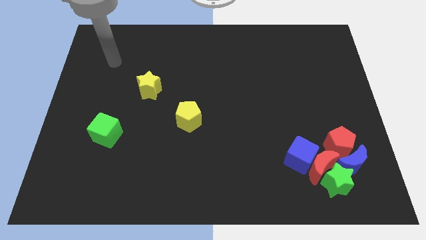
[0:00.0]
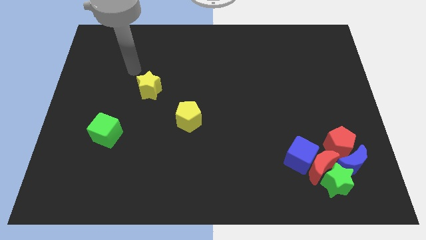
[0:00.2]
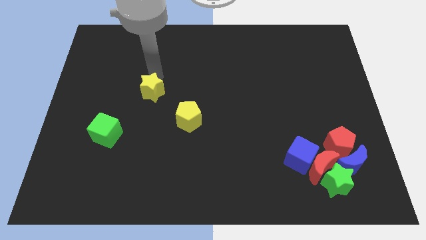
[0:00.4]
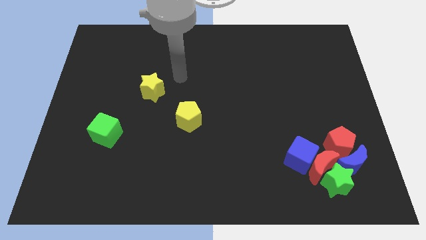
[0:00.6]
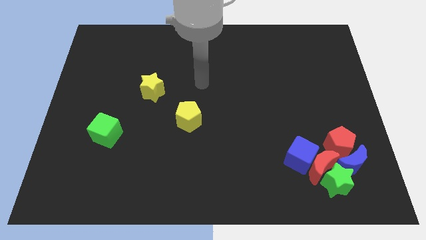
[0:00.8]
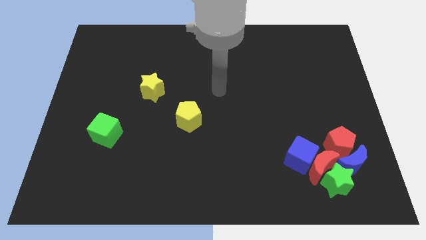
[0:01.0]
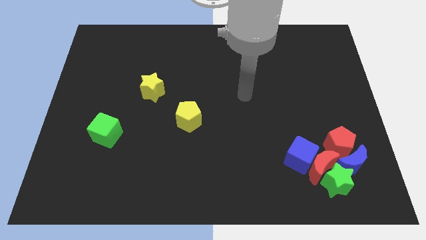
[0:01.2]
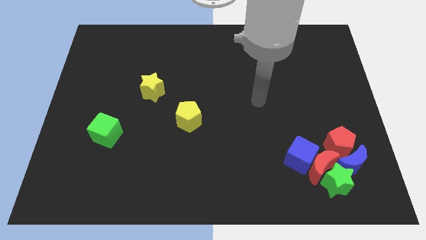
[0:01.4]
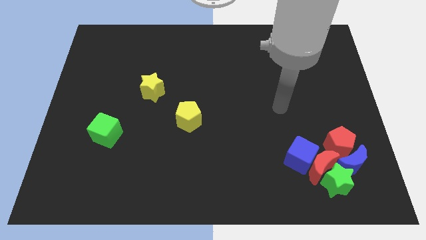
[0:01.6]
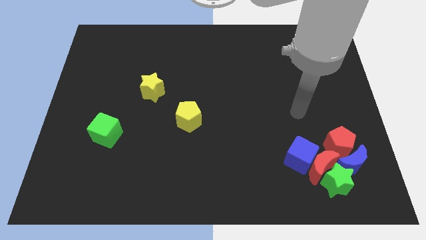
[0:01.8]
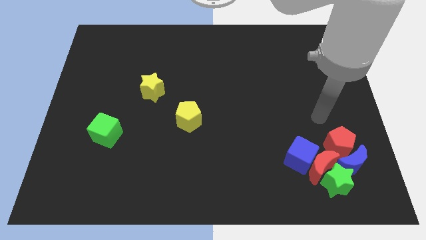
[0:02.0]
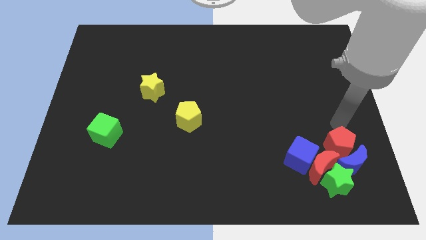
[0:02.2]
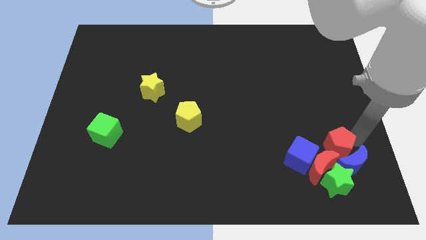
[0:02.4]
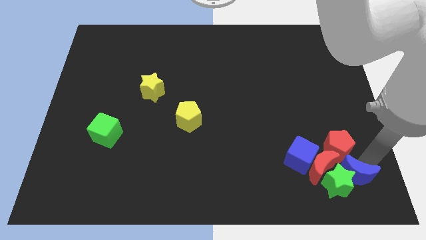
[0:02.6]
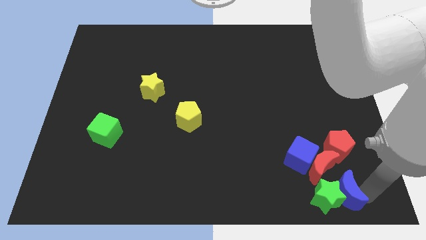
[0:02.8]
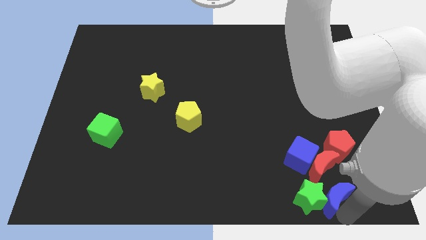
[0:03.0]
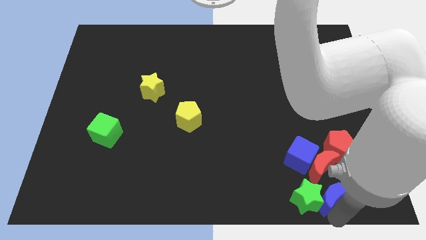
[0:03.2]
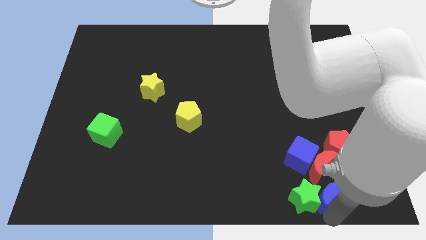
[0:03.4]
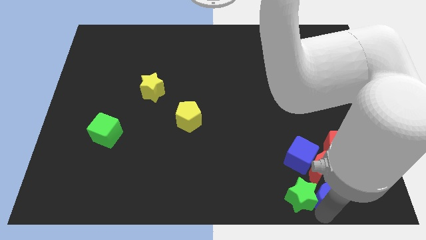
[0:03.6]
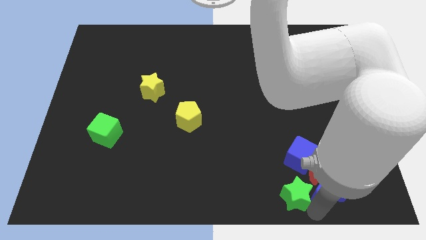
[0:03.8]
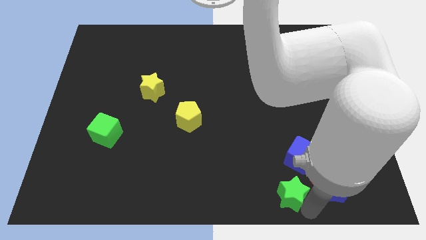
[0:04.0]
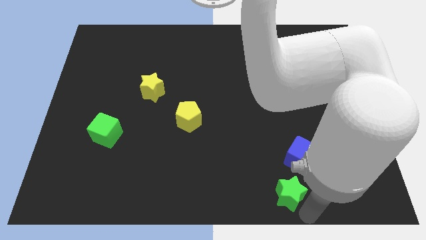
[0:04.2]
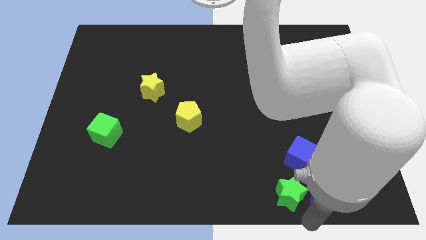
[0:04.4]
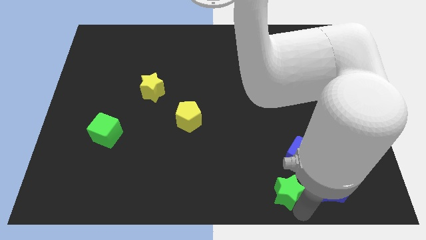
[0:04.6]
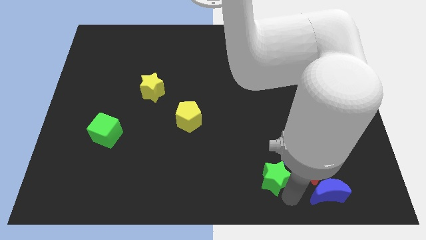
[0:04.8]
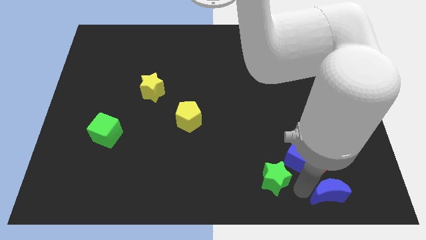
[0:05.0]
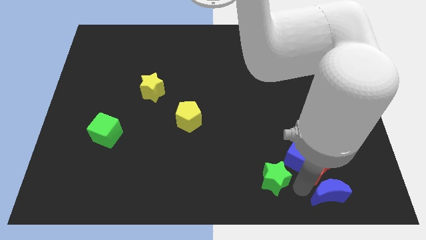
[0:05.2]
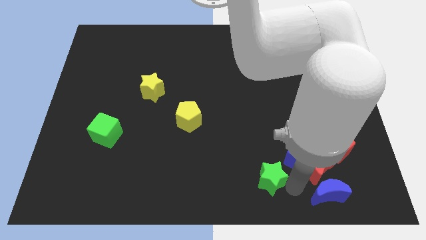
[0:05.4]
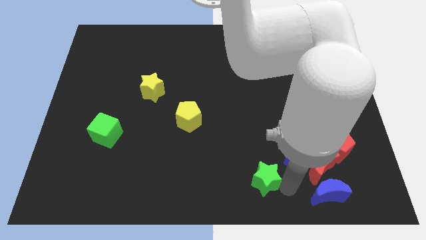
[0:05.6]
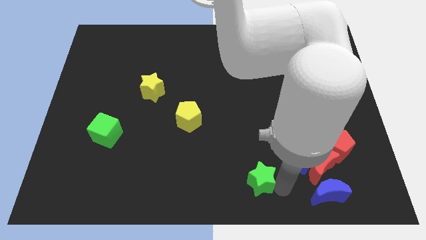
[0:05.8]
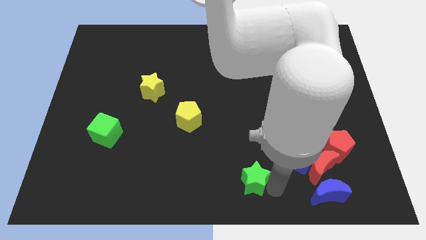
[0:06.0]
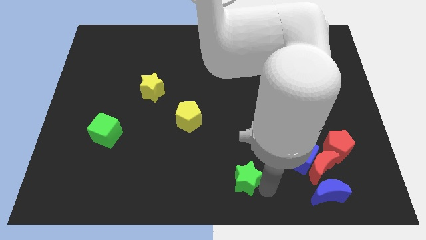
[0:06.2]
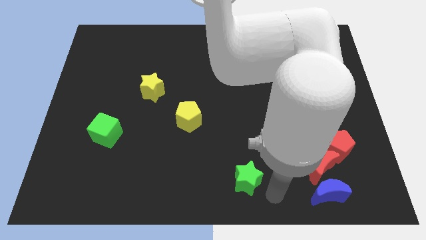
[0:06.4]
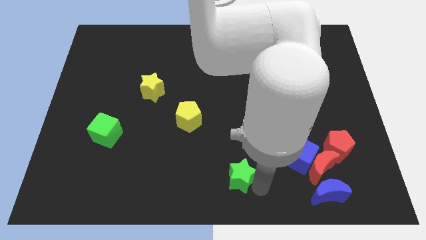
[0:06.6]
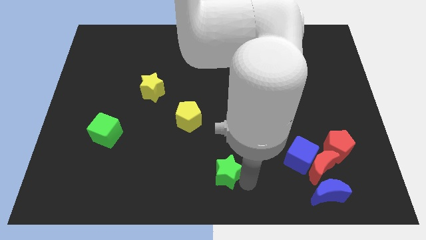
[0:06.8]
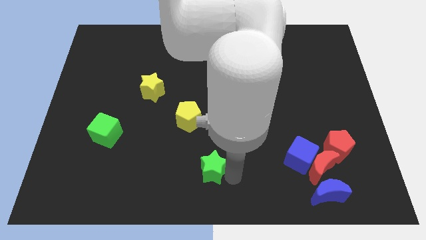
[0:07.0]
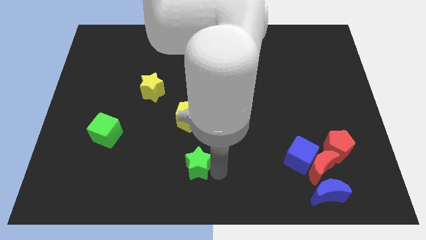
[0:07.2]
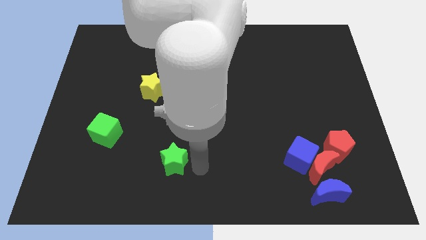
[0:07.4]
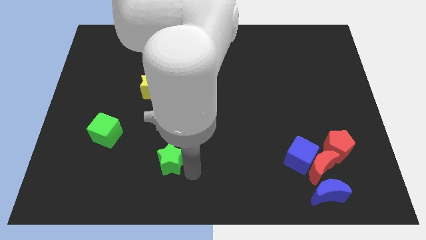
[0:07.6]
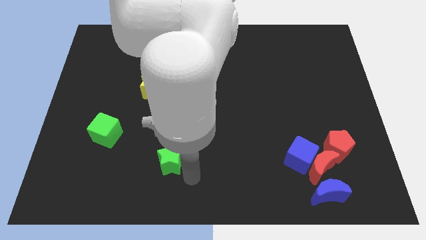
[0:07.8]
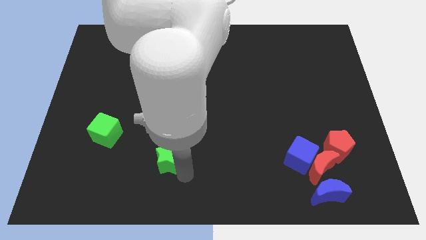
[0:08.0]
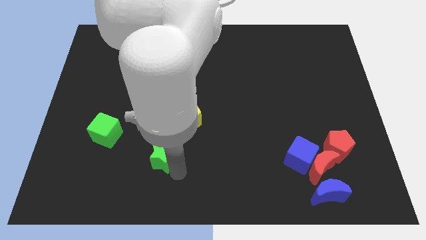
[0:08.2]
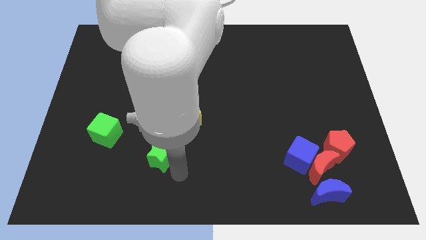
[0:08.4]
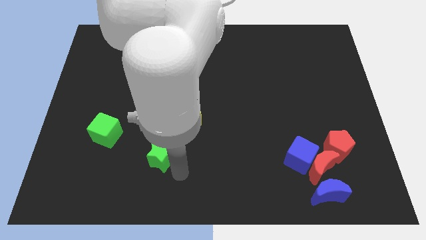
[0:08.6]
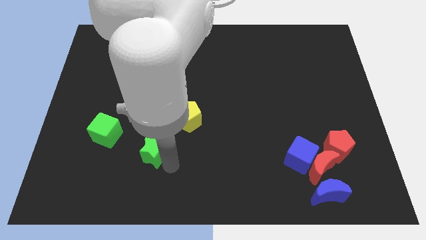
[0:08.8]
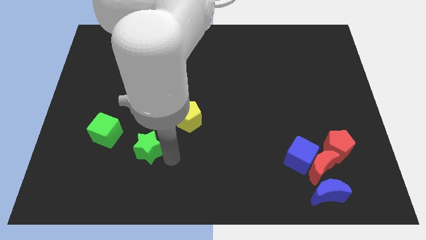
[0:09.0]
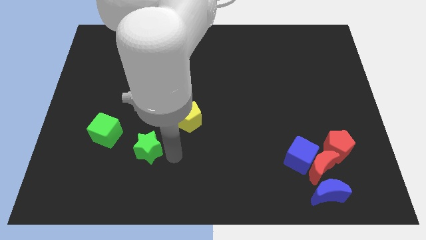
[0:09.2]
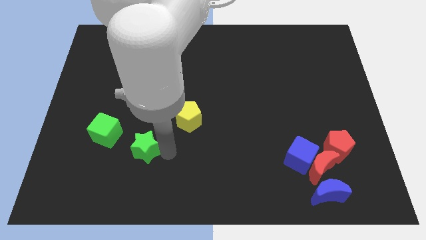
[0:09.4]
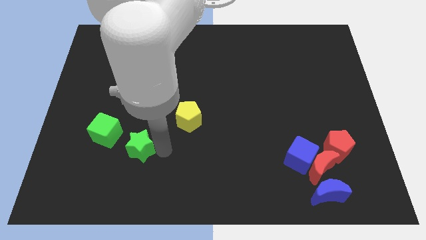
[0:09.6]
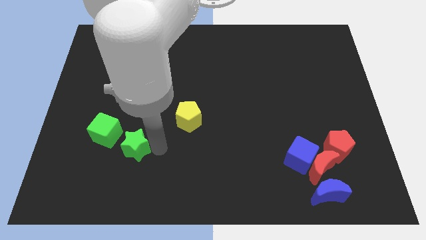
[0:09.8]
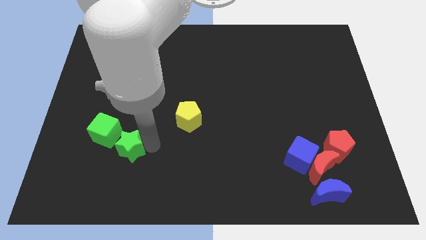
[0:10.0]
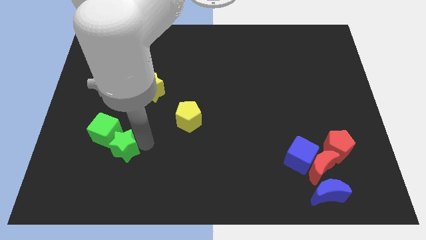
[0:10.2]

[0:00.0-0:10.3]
move the green star to the green cube

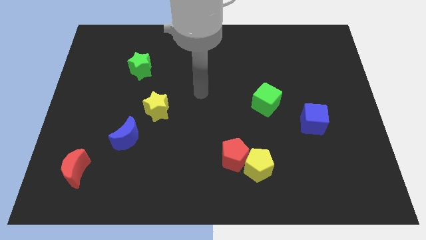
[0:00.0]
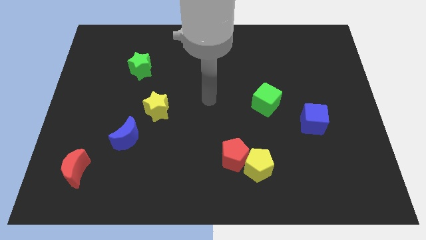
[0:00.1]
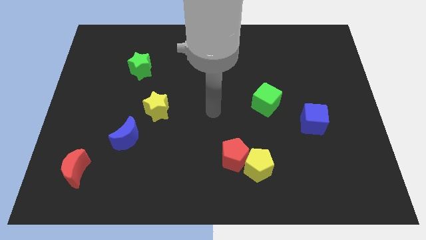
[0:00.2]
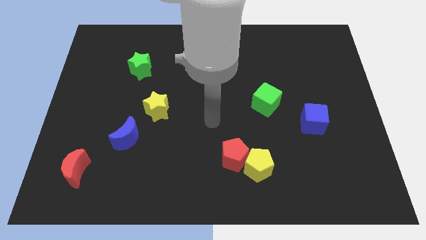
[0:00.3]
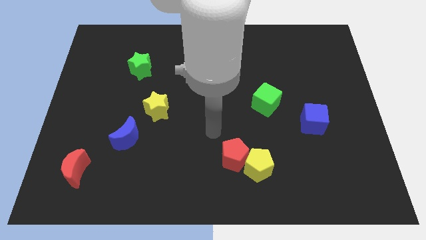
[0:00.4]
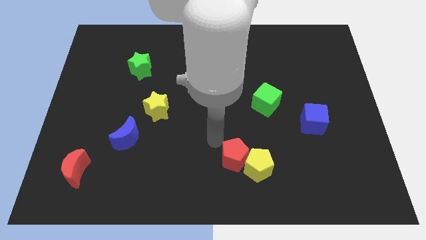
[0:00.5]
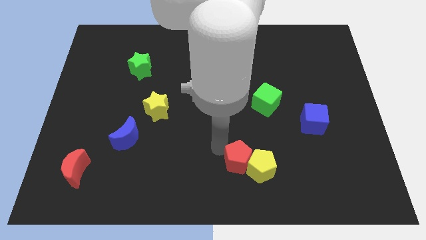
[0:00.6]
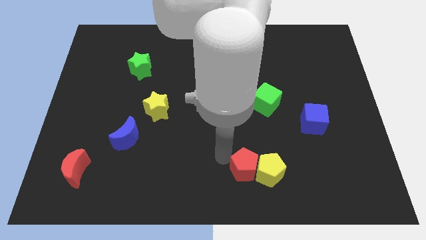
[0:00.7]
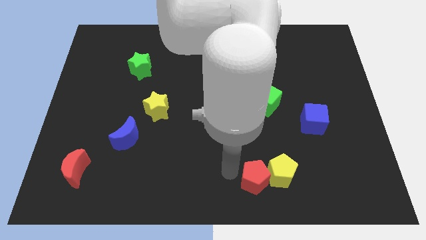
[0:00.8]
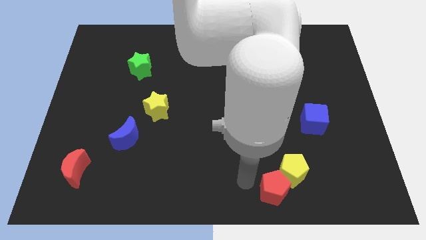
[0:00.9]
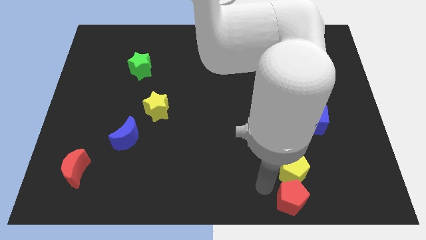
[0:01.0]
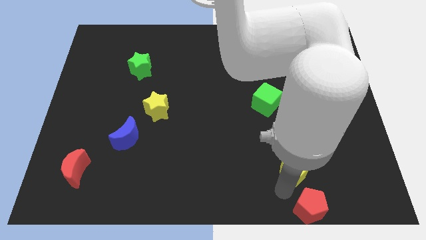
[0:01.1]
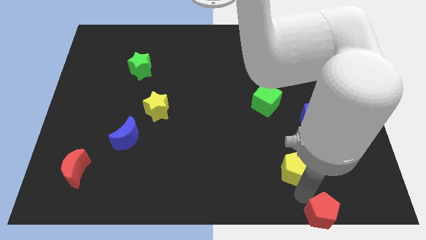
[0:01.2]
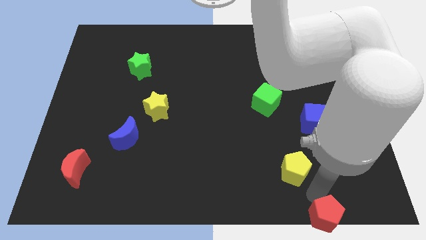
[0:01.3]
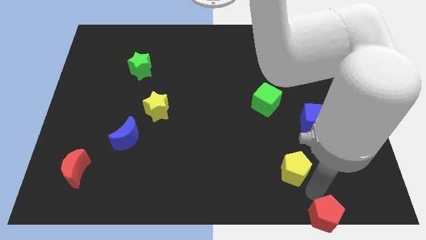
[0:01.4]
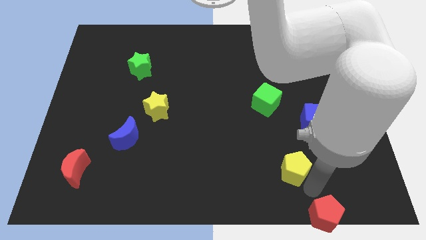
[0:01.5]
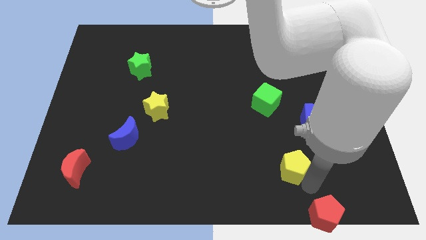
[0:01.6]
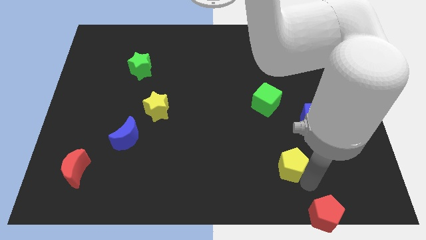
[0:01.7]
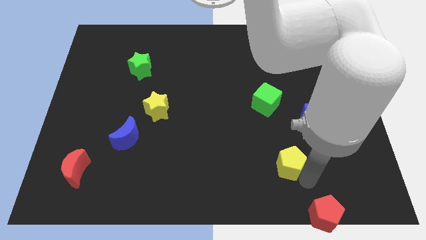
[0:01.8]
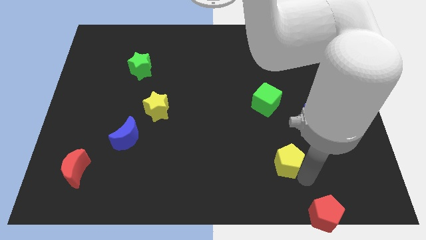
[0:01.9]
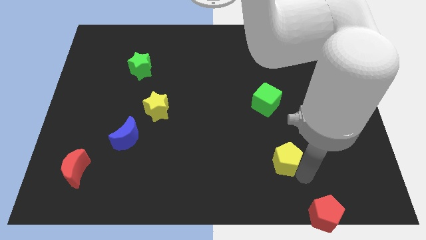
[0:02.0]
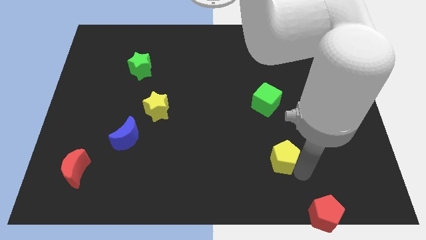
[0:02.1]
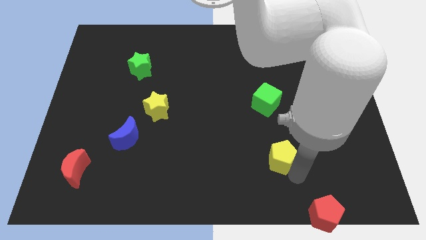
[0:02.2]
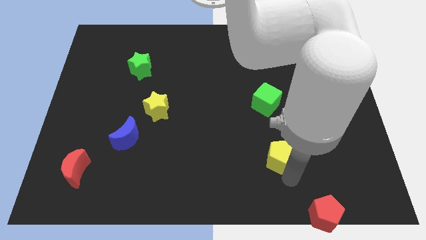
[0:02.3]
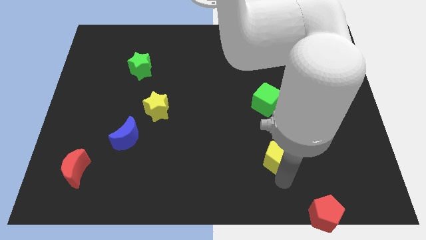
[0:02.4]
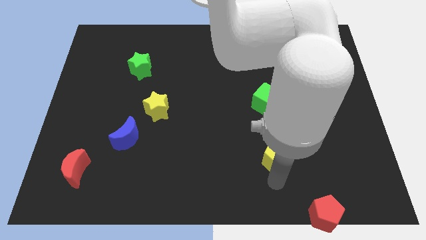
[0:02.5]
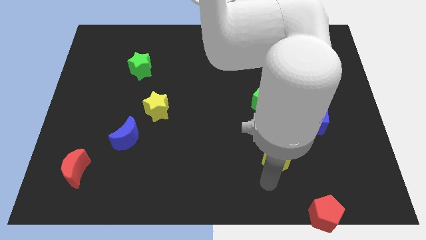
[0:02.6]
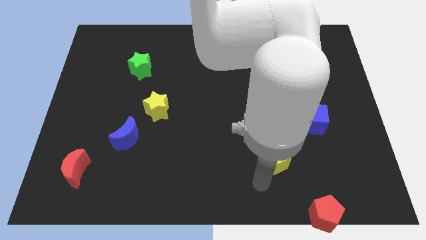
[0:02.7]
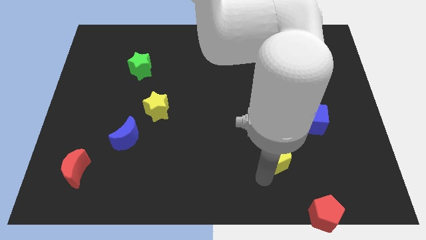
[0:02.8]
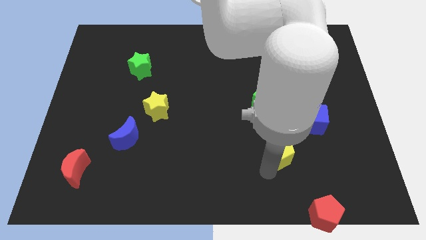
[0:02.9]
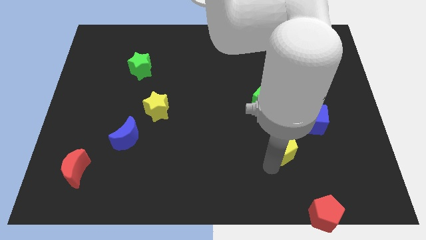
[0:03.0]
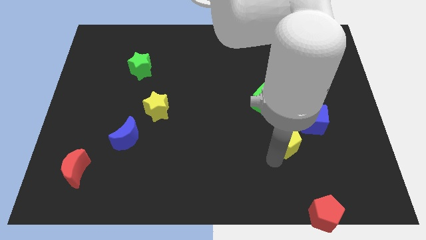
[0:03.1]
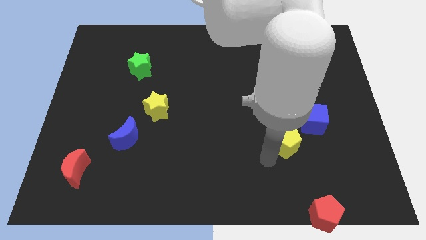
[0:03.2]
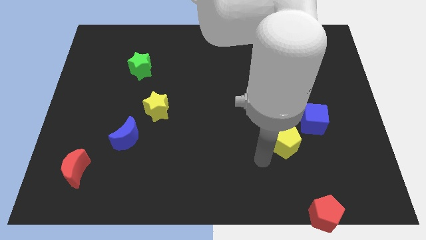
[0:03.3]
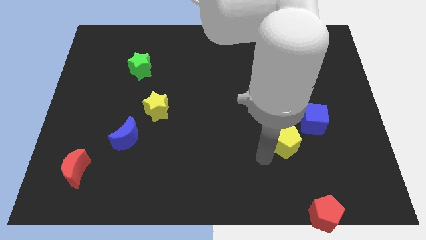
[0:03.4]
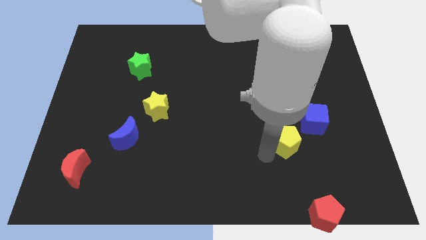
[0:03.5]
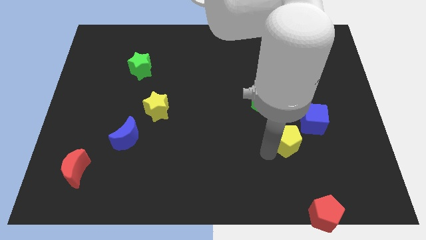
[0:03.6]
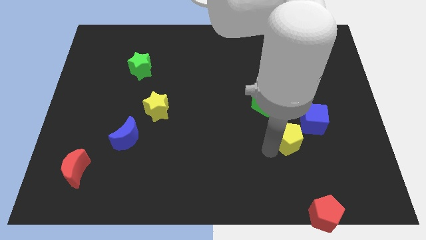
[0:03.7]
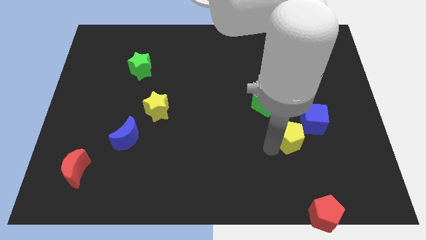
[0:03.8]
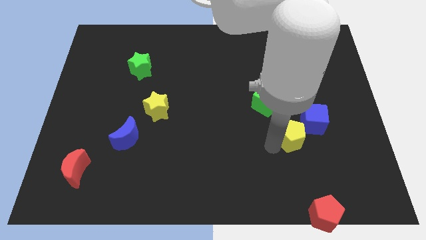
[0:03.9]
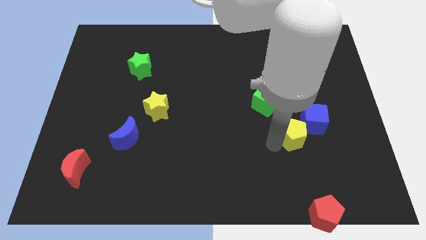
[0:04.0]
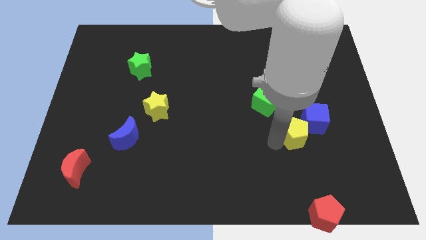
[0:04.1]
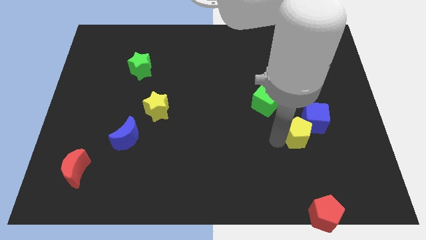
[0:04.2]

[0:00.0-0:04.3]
slide the yellow pentagon next to the blue cube
